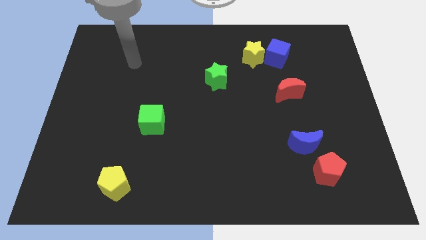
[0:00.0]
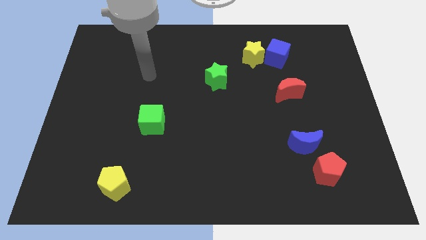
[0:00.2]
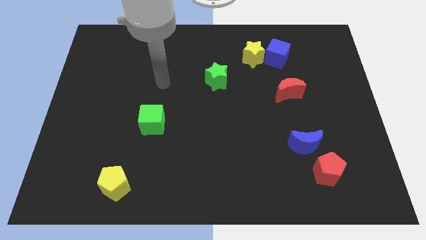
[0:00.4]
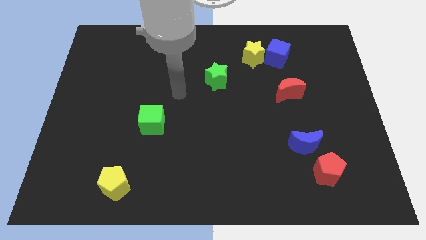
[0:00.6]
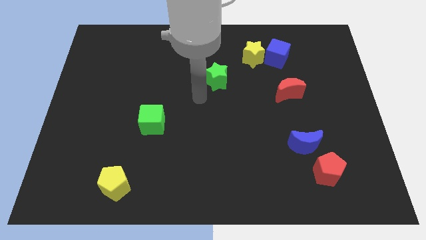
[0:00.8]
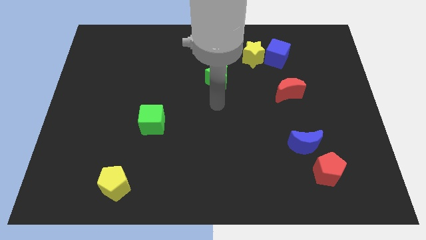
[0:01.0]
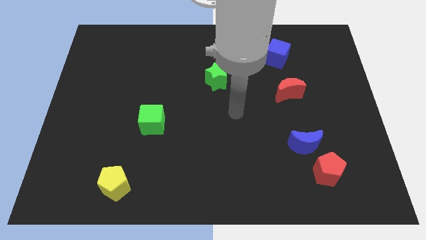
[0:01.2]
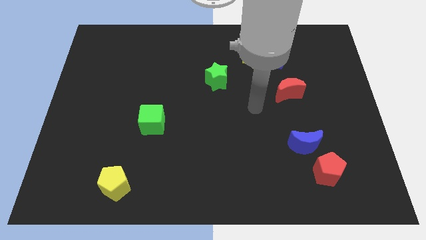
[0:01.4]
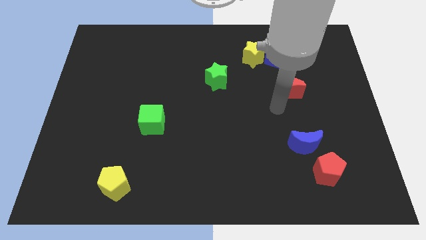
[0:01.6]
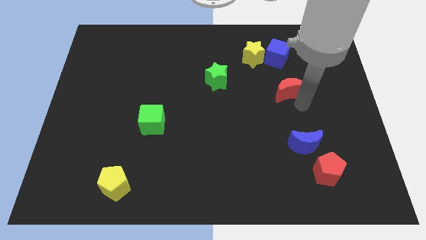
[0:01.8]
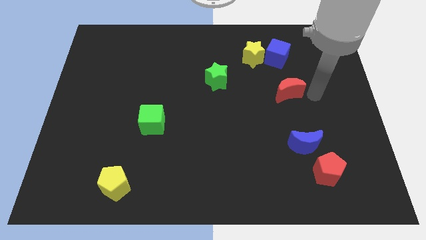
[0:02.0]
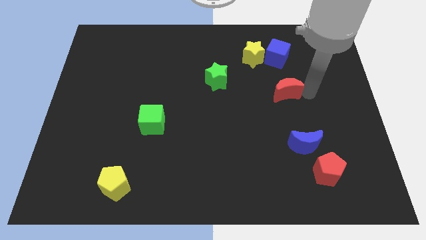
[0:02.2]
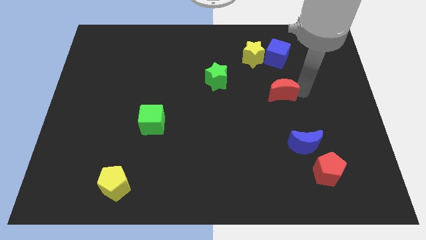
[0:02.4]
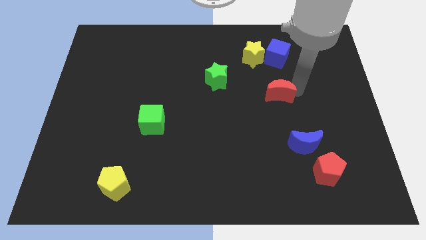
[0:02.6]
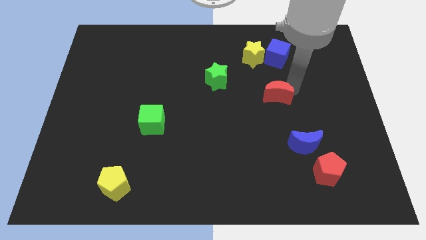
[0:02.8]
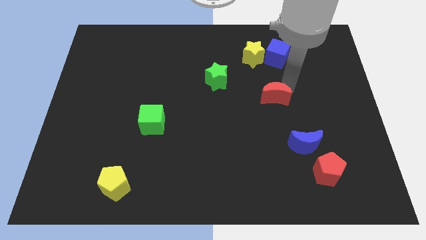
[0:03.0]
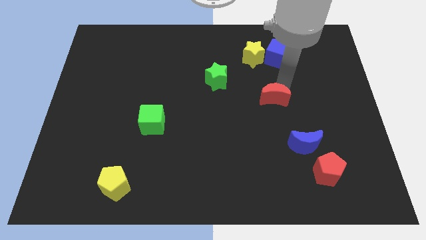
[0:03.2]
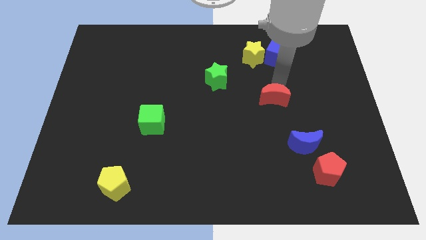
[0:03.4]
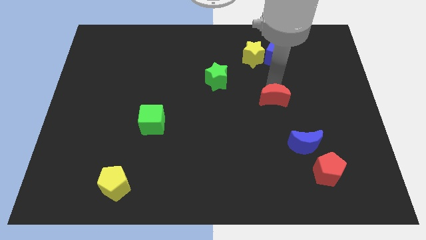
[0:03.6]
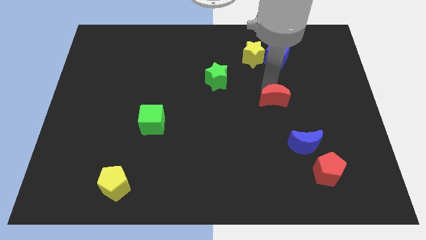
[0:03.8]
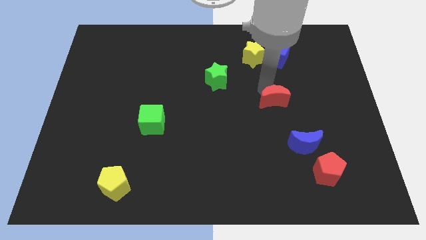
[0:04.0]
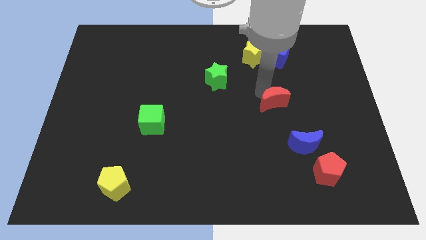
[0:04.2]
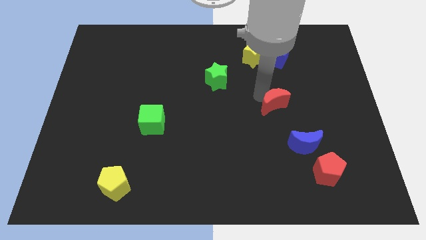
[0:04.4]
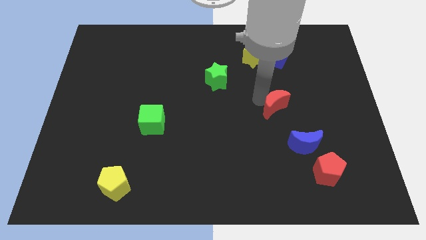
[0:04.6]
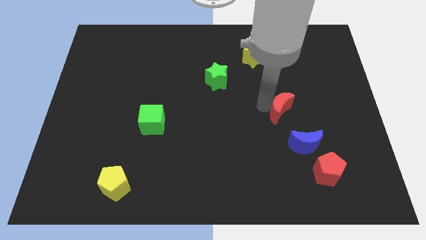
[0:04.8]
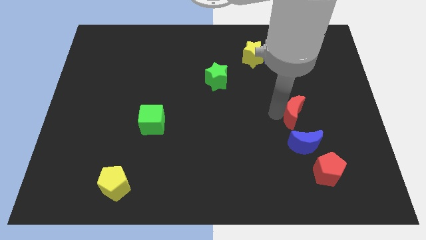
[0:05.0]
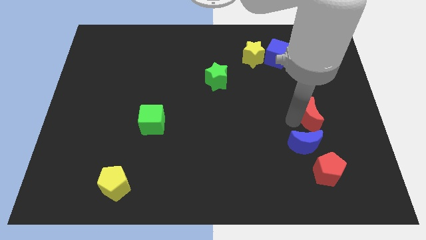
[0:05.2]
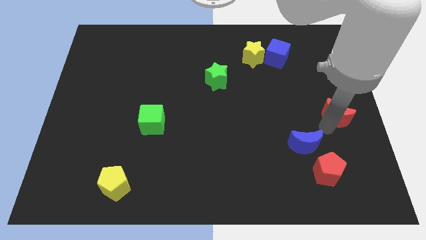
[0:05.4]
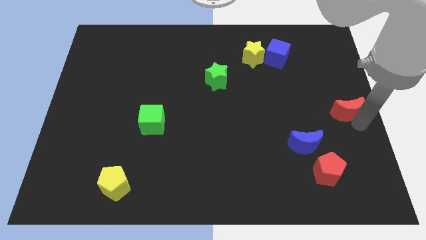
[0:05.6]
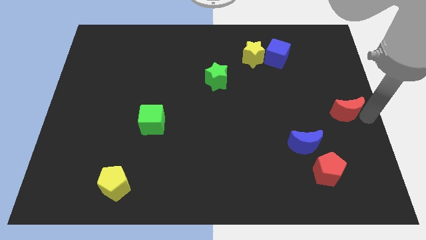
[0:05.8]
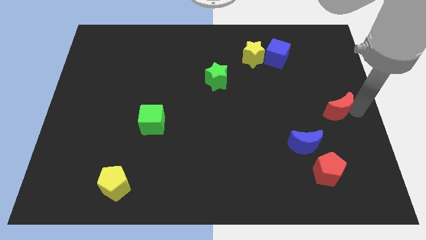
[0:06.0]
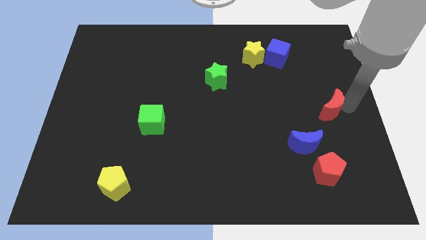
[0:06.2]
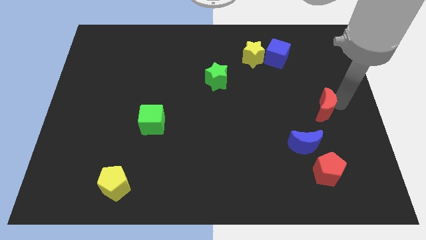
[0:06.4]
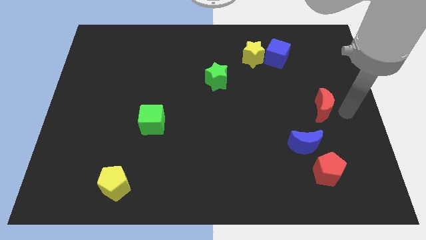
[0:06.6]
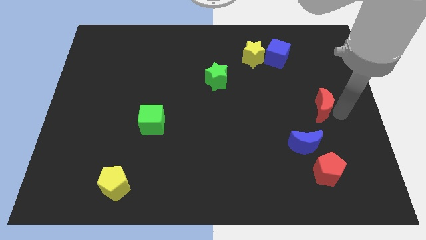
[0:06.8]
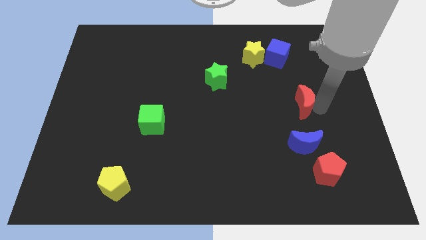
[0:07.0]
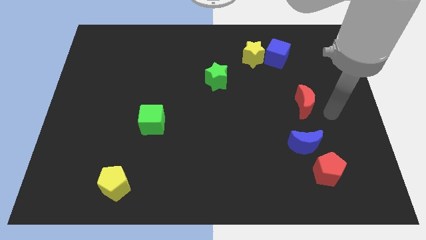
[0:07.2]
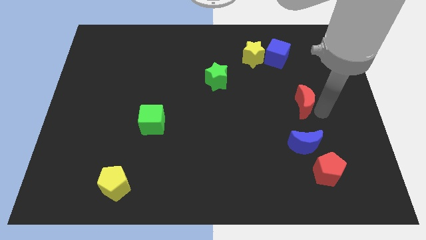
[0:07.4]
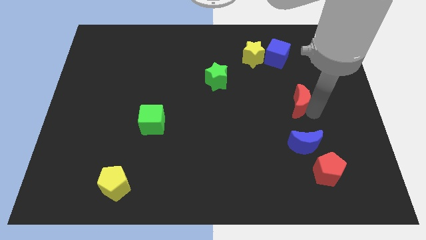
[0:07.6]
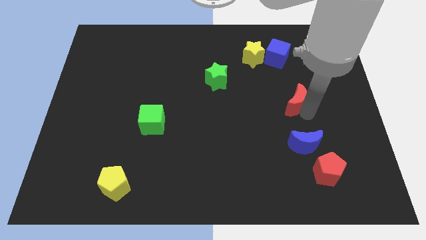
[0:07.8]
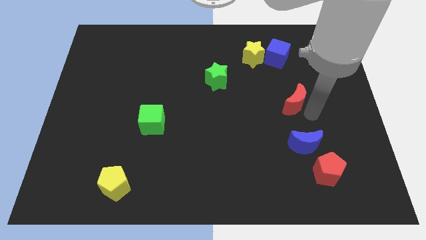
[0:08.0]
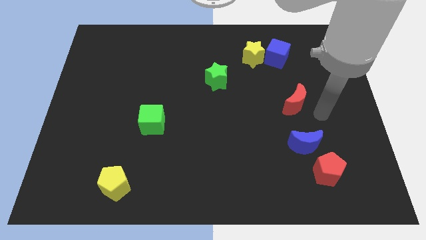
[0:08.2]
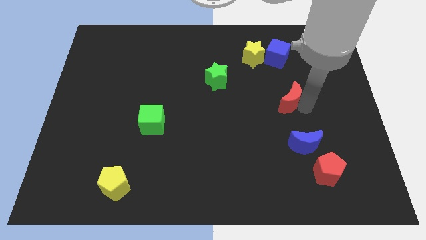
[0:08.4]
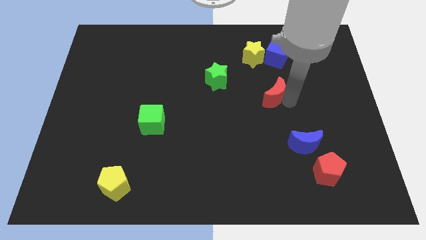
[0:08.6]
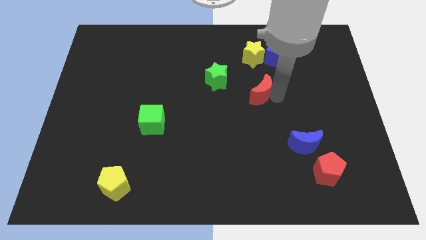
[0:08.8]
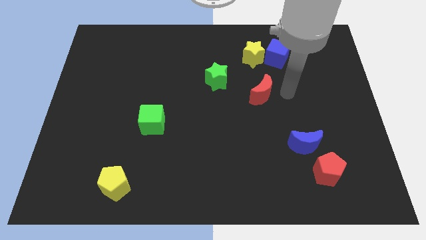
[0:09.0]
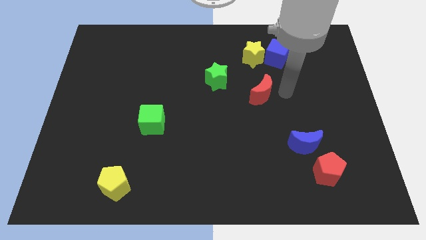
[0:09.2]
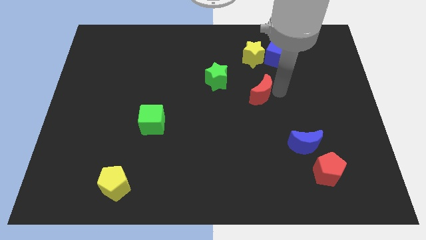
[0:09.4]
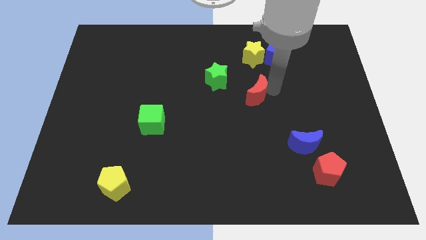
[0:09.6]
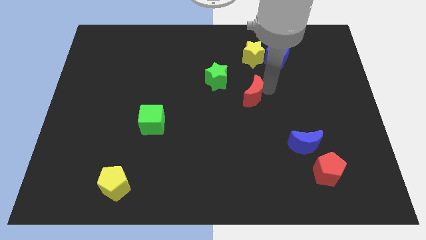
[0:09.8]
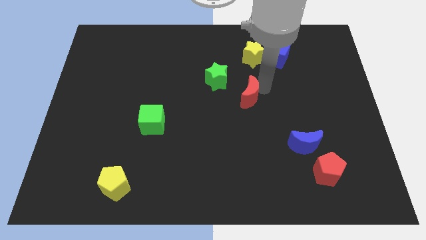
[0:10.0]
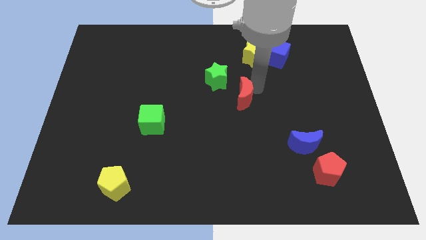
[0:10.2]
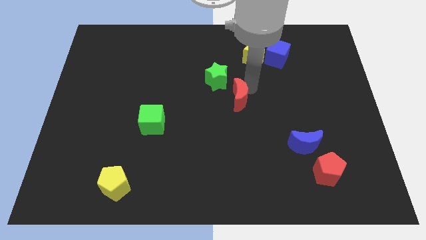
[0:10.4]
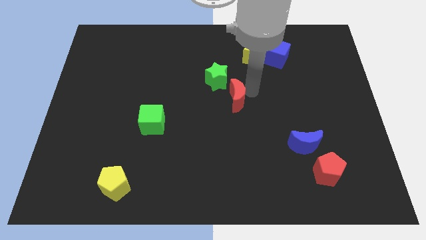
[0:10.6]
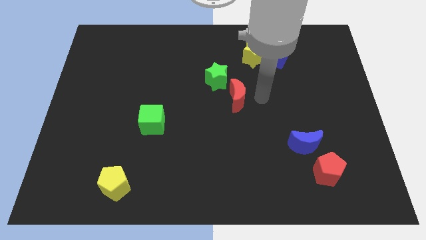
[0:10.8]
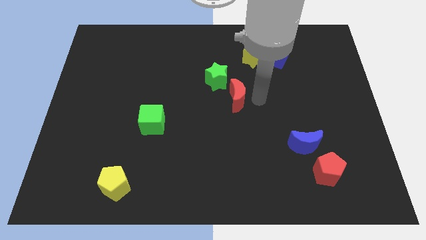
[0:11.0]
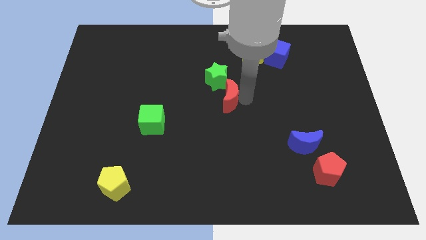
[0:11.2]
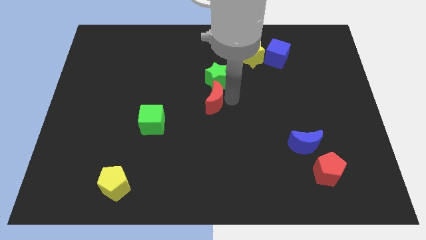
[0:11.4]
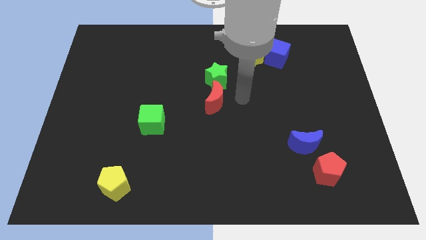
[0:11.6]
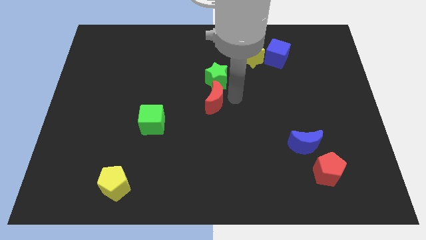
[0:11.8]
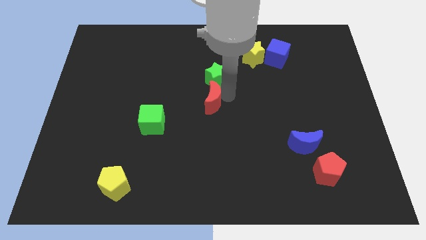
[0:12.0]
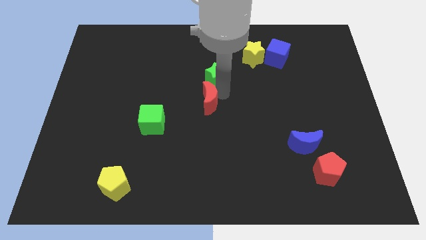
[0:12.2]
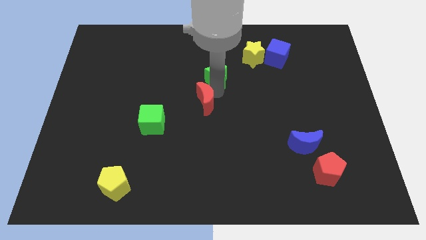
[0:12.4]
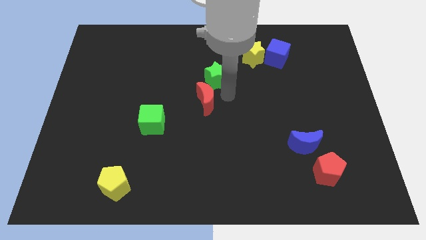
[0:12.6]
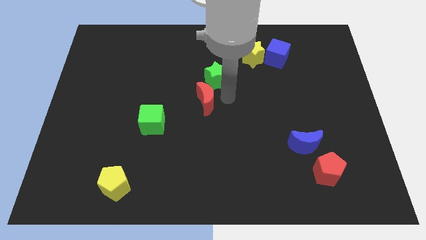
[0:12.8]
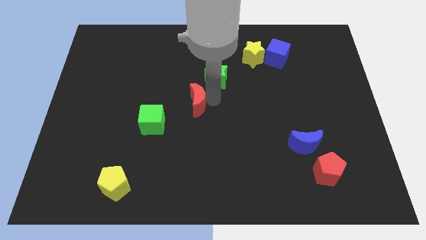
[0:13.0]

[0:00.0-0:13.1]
push the red moon to the top right side of the green cube

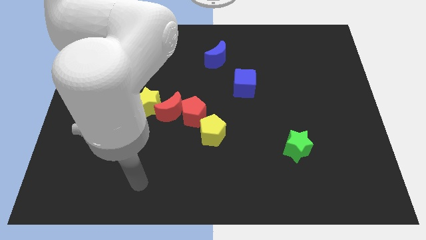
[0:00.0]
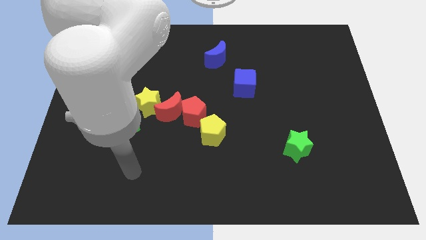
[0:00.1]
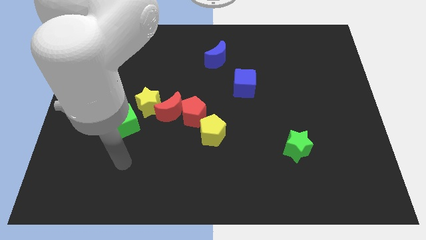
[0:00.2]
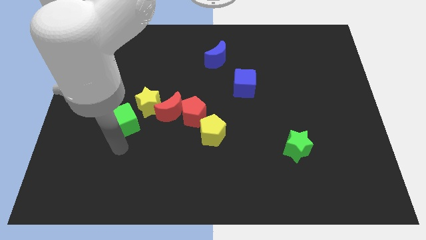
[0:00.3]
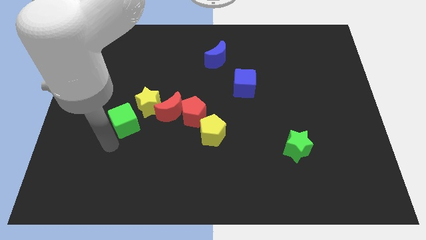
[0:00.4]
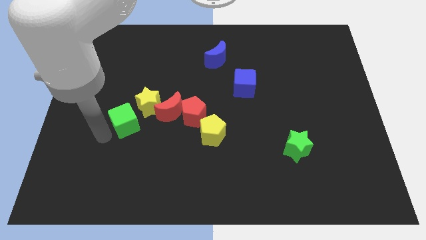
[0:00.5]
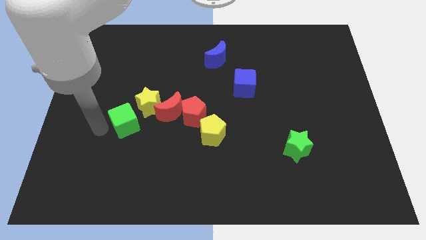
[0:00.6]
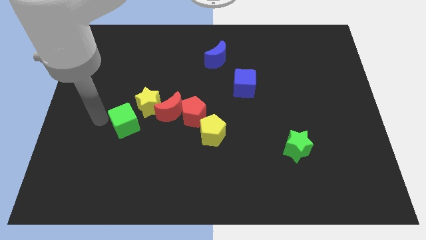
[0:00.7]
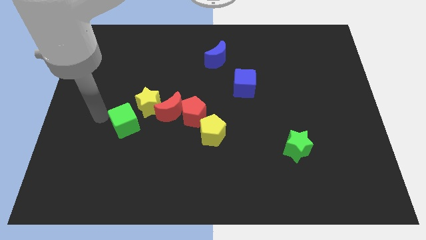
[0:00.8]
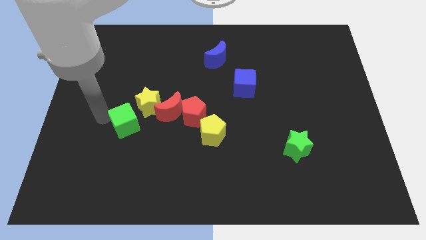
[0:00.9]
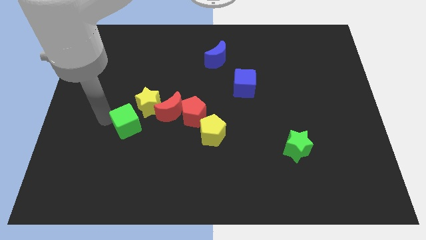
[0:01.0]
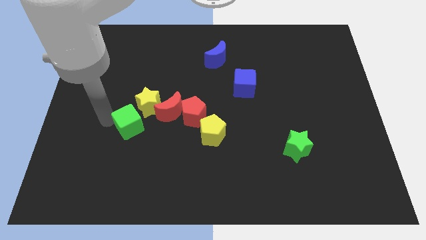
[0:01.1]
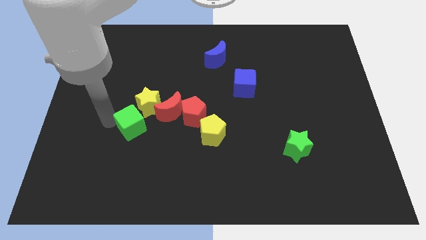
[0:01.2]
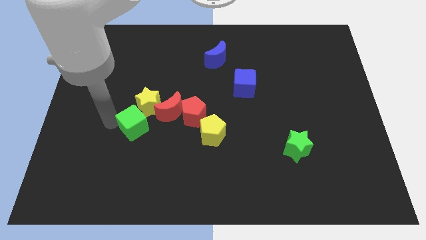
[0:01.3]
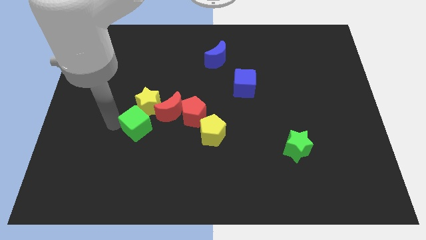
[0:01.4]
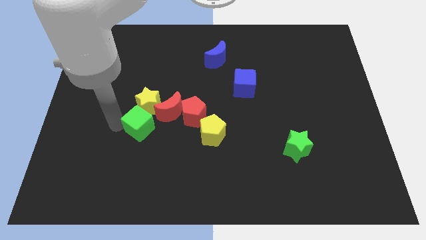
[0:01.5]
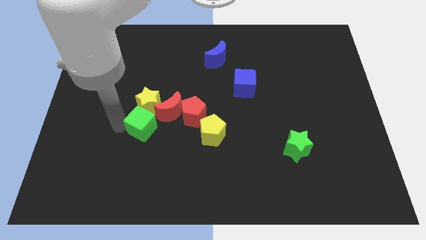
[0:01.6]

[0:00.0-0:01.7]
push the green cube left of the yellow pentagon
